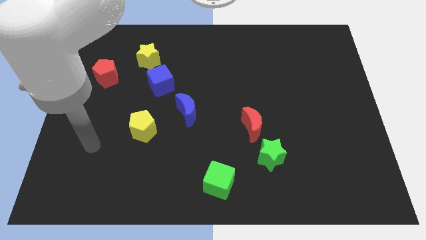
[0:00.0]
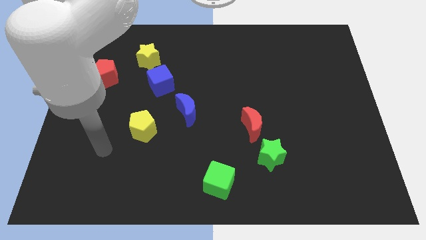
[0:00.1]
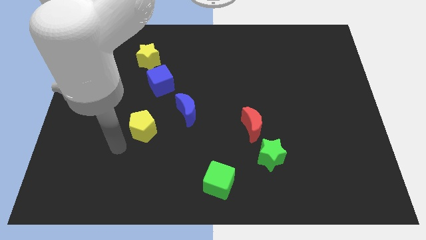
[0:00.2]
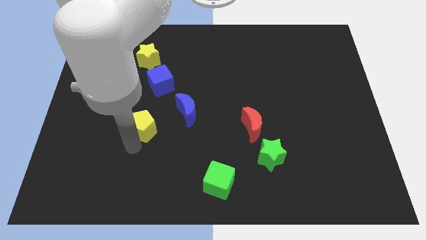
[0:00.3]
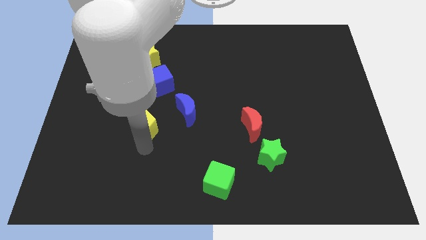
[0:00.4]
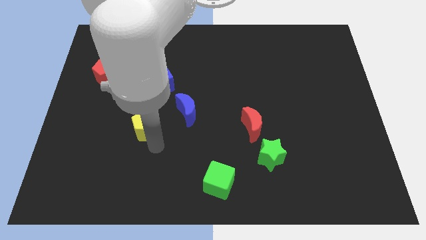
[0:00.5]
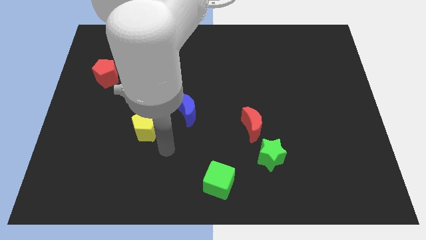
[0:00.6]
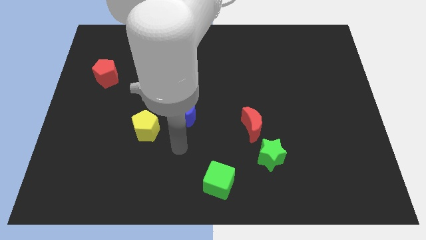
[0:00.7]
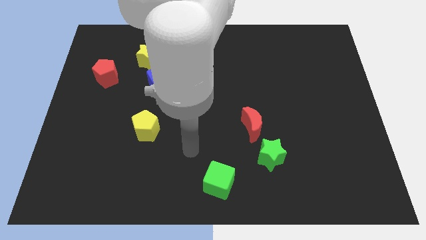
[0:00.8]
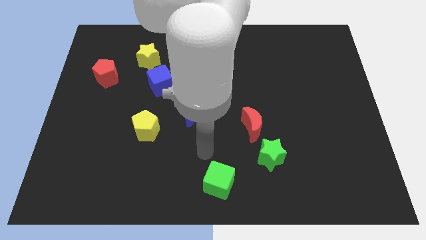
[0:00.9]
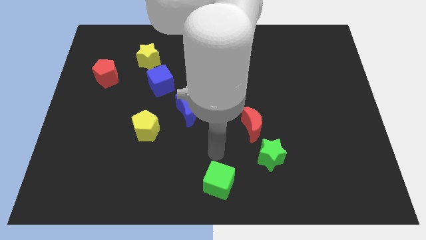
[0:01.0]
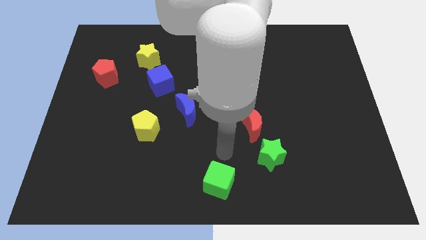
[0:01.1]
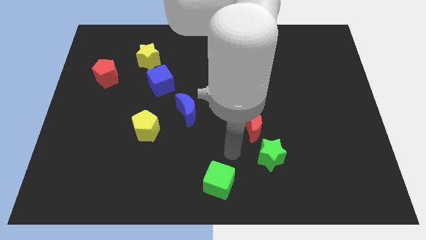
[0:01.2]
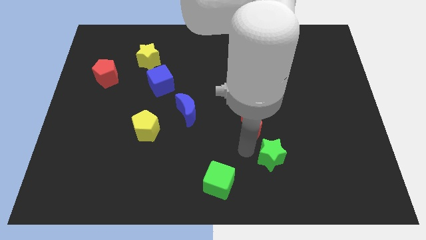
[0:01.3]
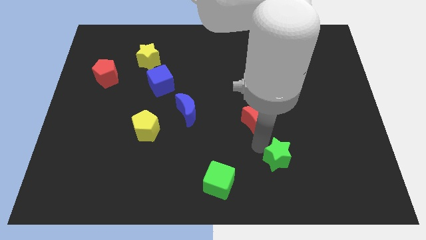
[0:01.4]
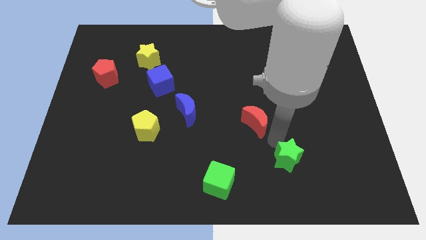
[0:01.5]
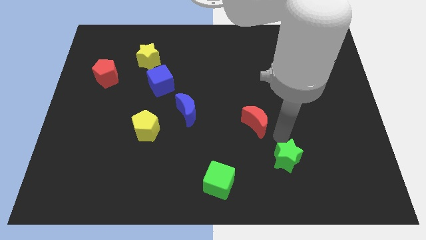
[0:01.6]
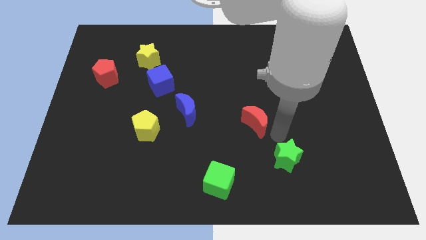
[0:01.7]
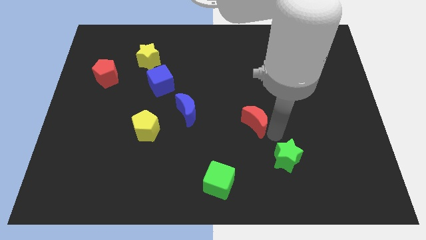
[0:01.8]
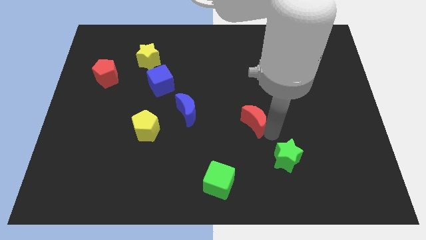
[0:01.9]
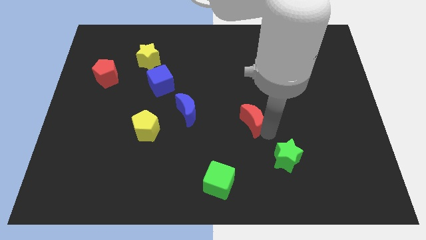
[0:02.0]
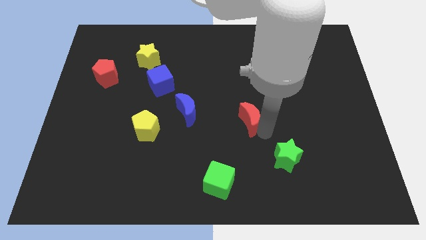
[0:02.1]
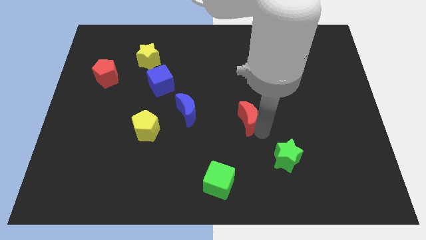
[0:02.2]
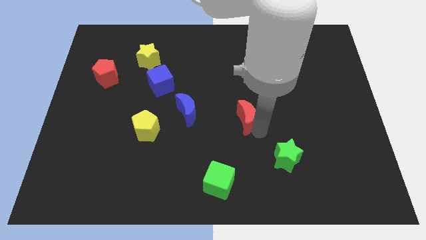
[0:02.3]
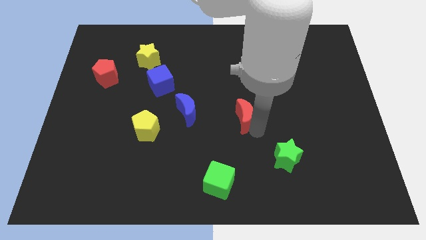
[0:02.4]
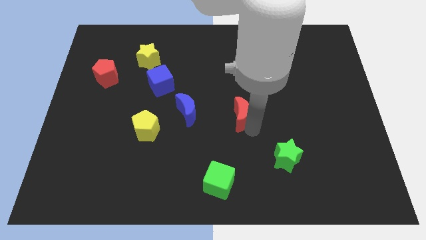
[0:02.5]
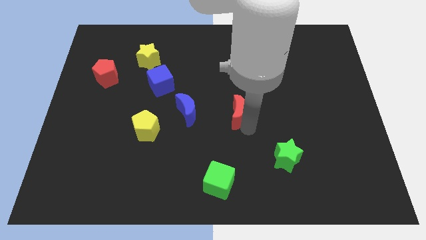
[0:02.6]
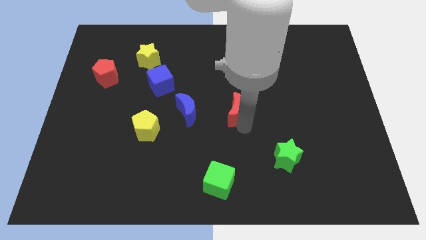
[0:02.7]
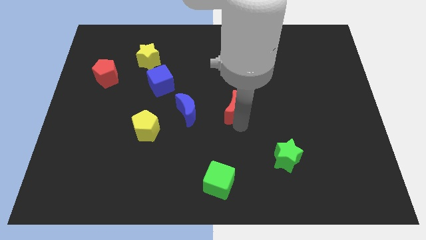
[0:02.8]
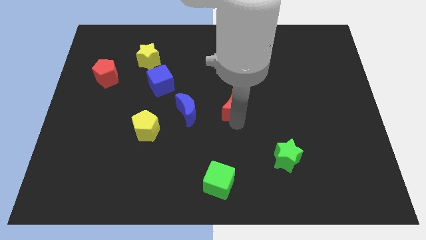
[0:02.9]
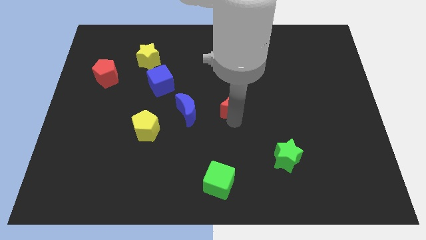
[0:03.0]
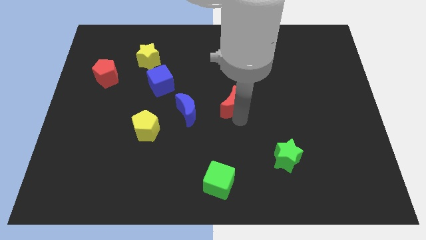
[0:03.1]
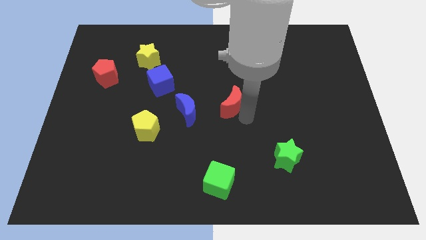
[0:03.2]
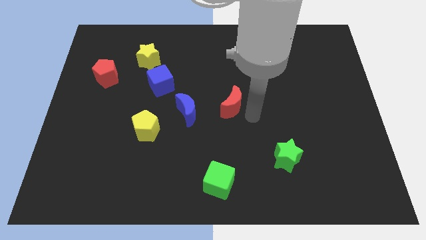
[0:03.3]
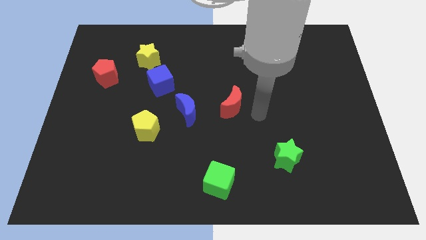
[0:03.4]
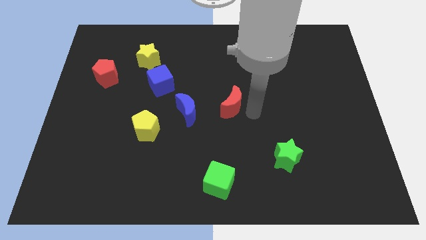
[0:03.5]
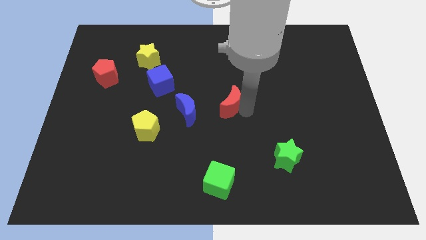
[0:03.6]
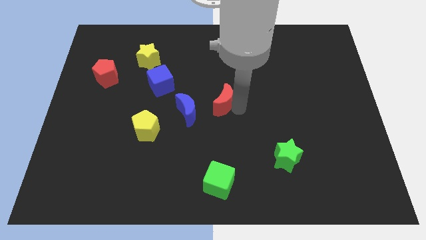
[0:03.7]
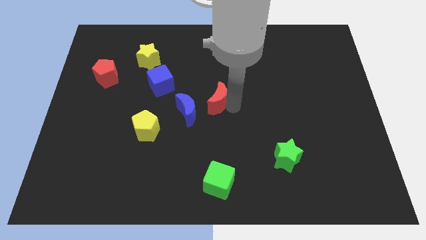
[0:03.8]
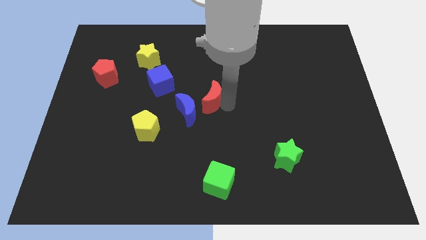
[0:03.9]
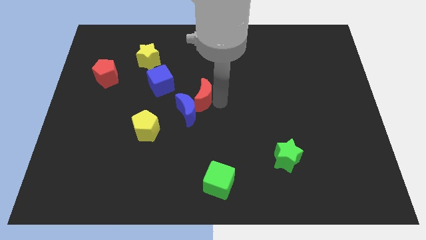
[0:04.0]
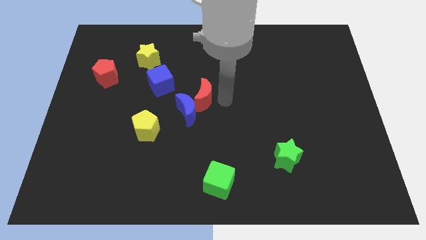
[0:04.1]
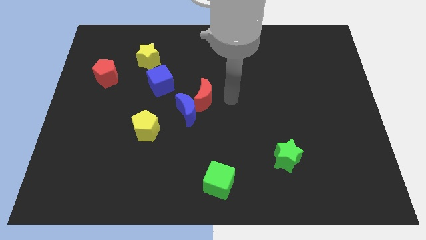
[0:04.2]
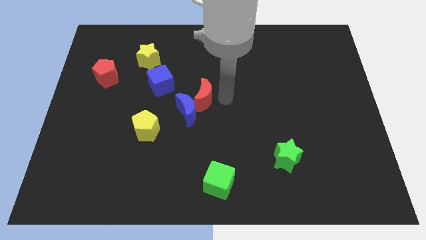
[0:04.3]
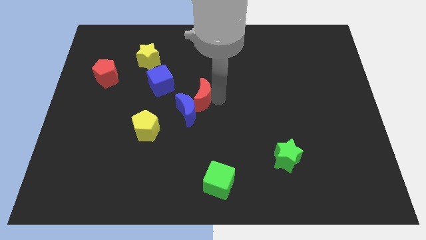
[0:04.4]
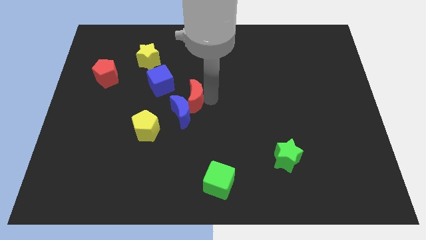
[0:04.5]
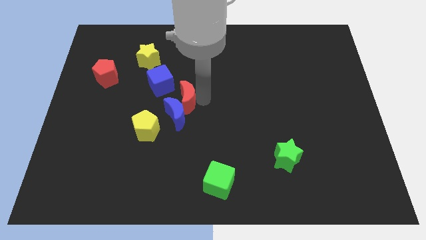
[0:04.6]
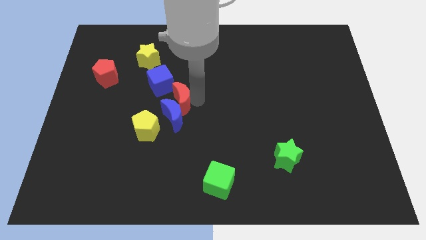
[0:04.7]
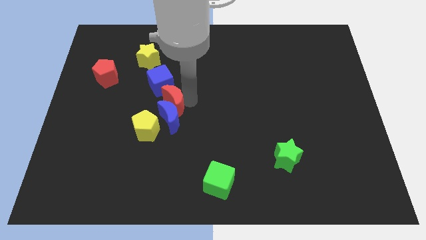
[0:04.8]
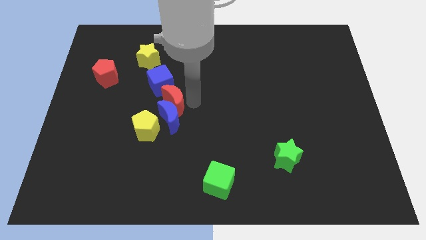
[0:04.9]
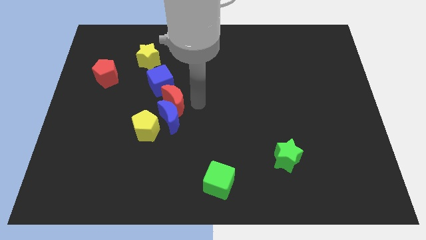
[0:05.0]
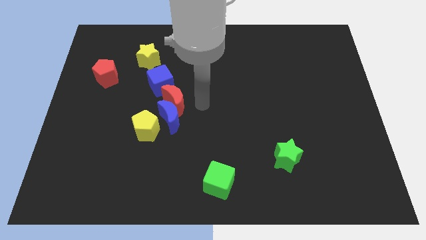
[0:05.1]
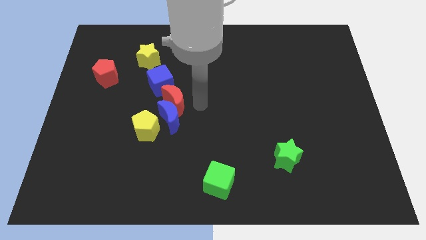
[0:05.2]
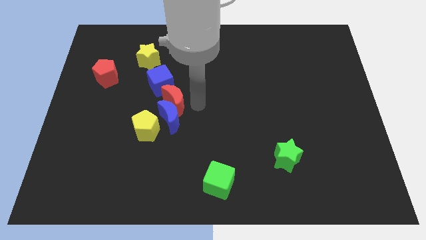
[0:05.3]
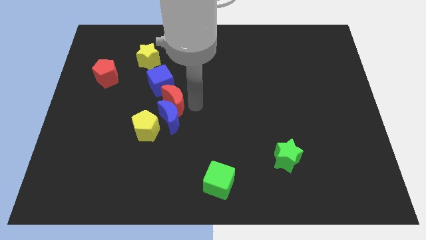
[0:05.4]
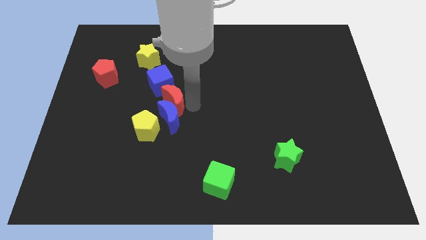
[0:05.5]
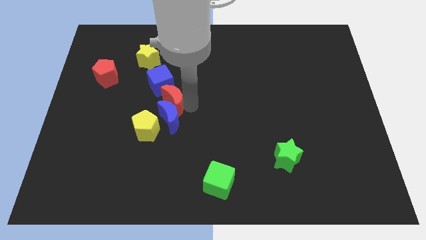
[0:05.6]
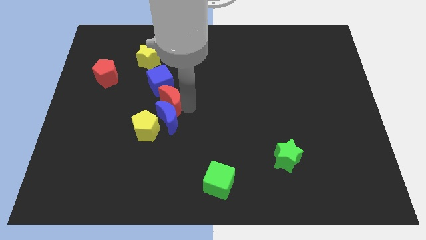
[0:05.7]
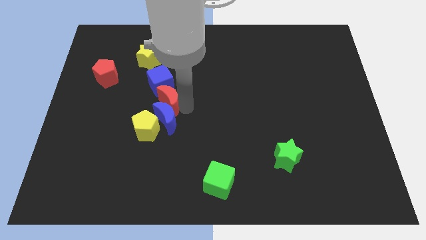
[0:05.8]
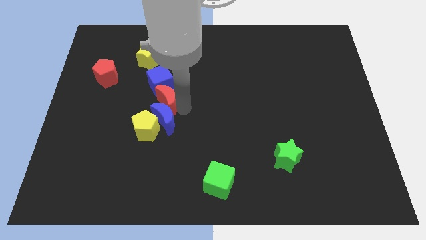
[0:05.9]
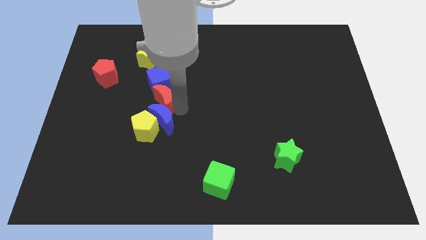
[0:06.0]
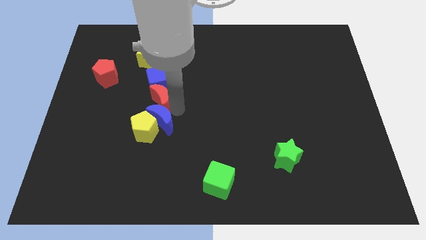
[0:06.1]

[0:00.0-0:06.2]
slide the red moon diagonally down and to the left of the blue cube

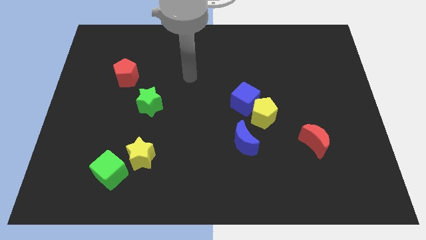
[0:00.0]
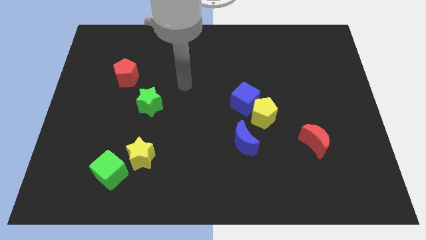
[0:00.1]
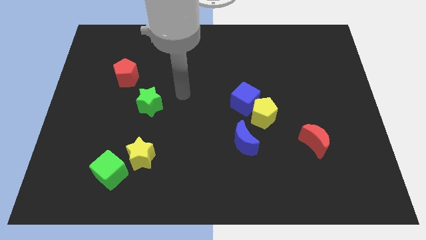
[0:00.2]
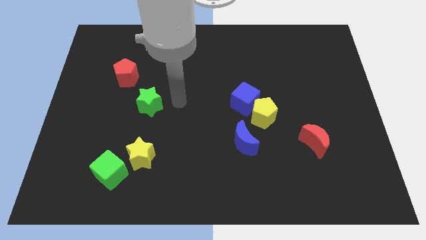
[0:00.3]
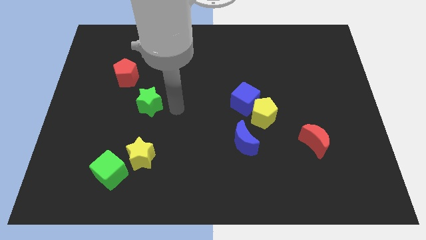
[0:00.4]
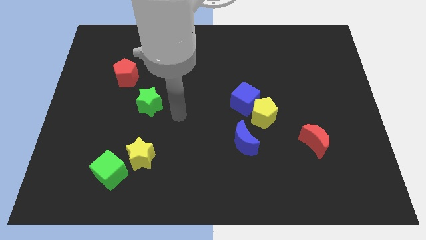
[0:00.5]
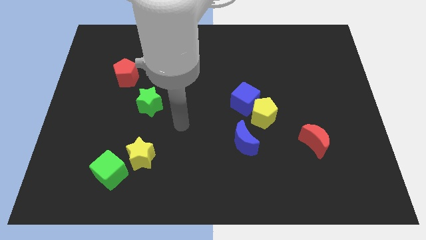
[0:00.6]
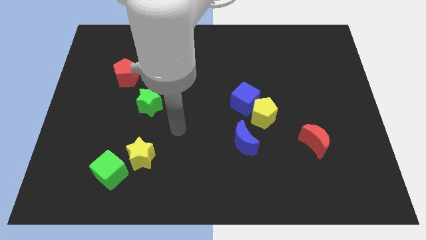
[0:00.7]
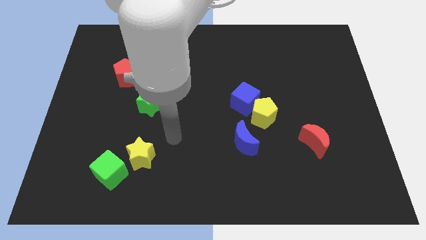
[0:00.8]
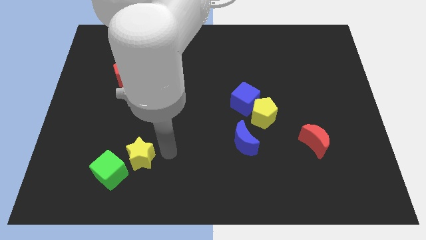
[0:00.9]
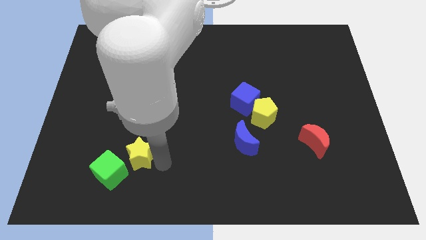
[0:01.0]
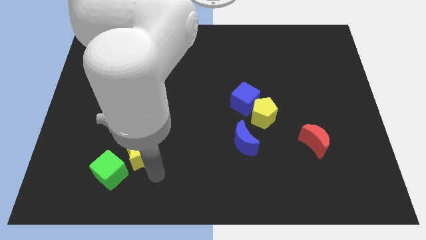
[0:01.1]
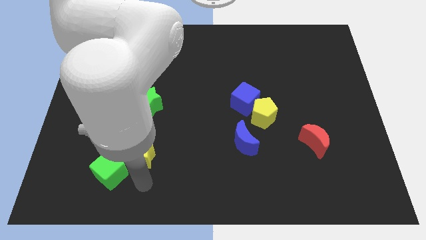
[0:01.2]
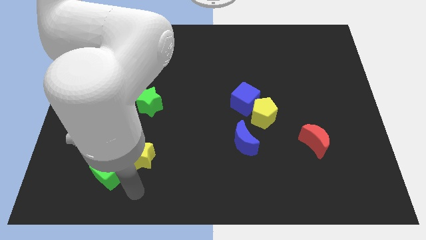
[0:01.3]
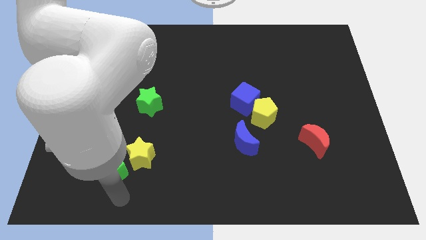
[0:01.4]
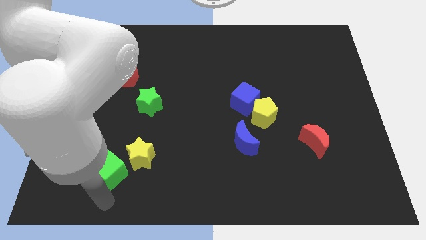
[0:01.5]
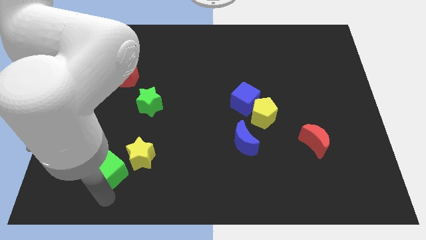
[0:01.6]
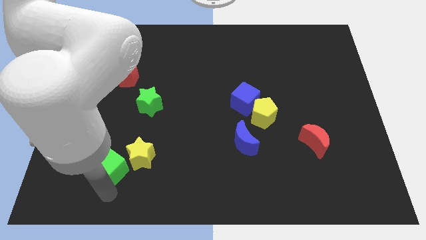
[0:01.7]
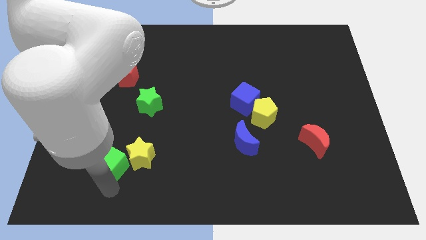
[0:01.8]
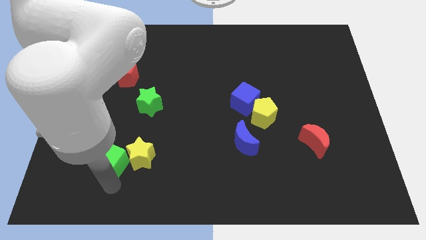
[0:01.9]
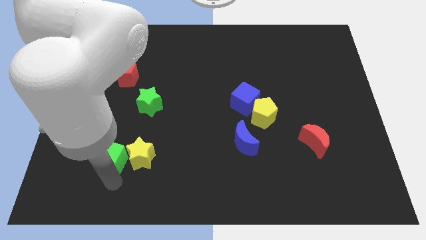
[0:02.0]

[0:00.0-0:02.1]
push the green cube diagonally up and to the left of the yellow star

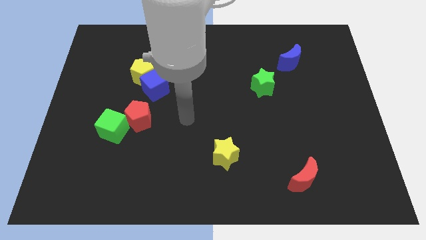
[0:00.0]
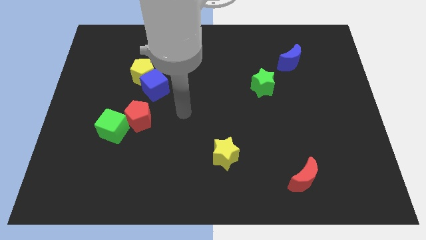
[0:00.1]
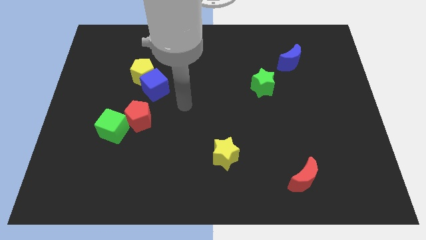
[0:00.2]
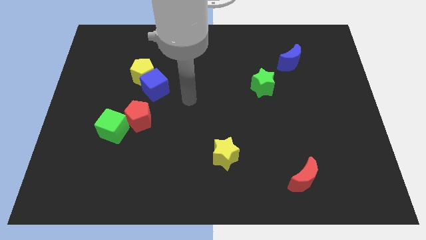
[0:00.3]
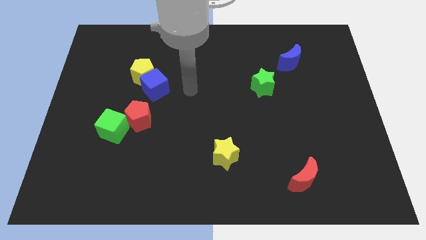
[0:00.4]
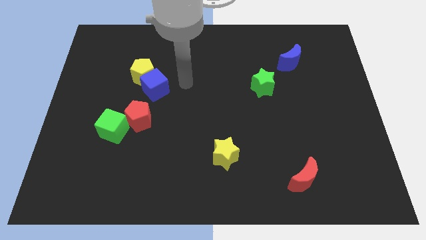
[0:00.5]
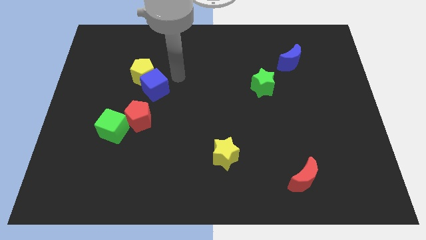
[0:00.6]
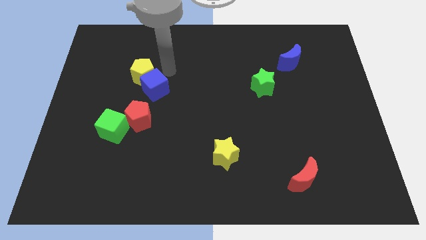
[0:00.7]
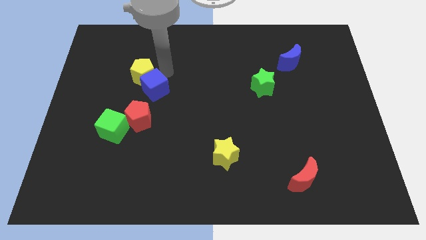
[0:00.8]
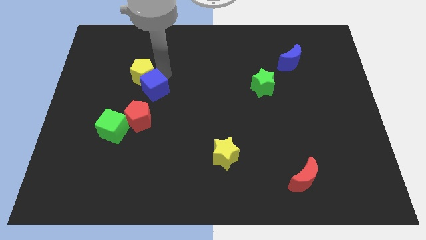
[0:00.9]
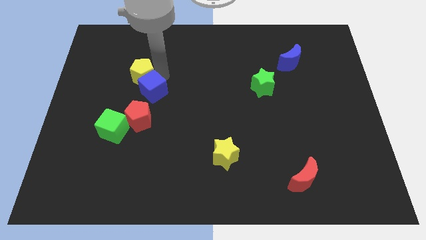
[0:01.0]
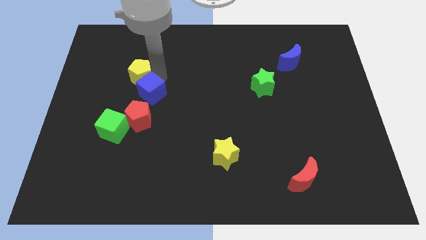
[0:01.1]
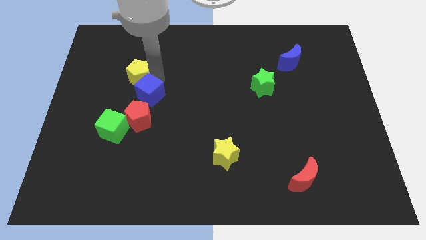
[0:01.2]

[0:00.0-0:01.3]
push the blue cube diagonally up and to the right of the green cube
